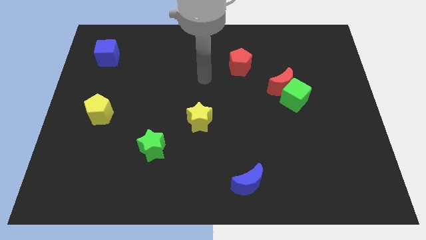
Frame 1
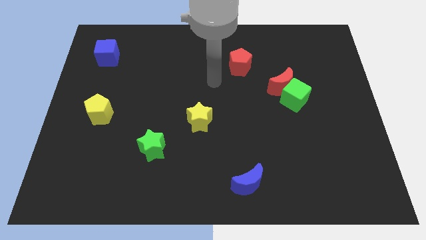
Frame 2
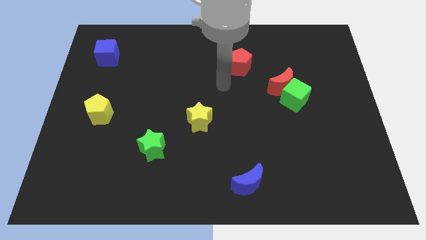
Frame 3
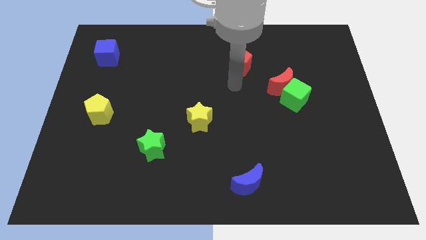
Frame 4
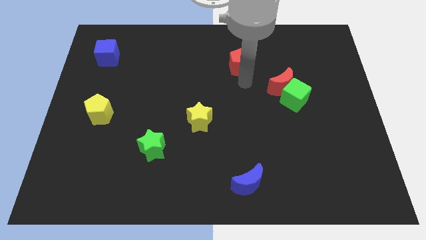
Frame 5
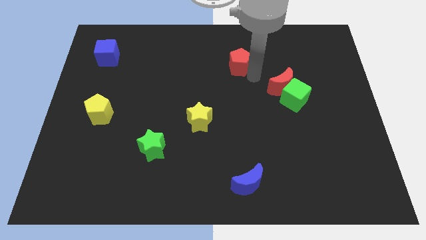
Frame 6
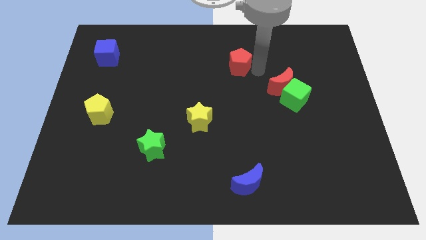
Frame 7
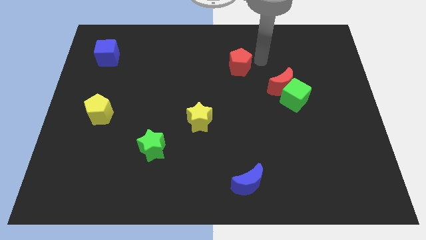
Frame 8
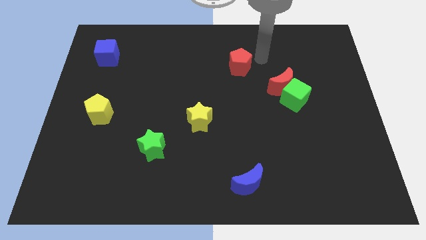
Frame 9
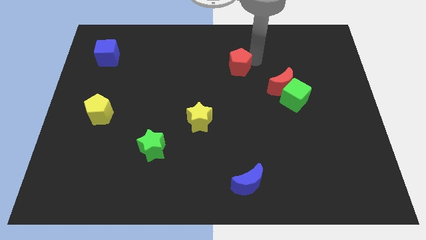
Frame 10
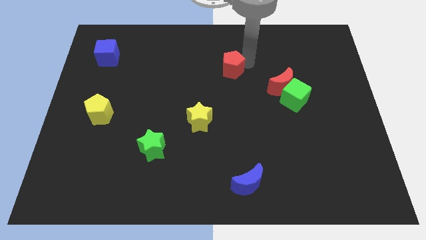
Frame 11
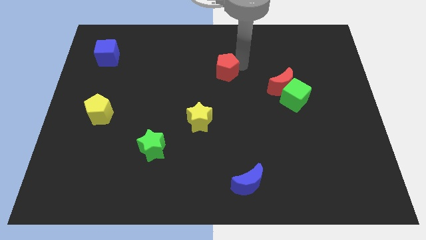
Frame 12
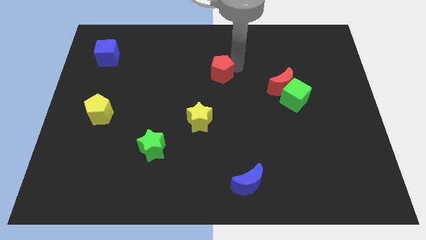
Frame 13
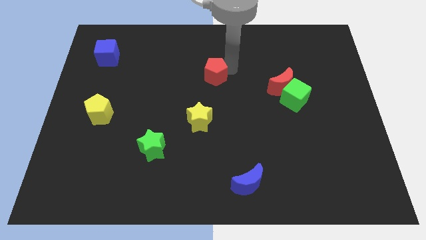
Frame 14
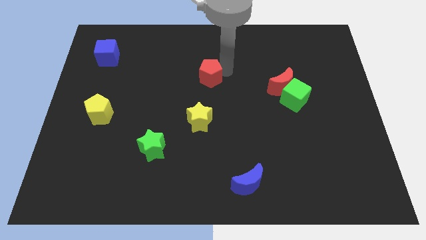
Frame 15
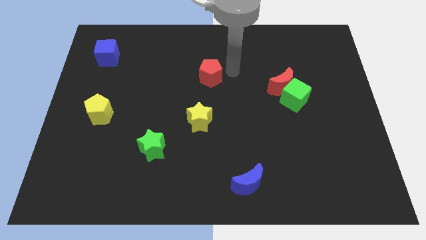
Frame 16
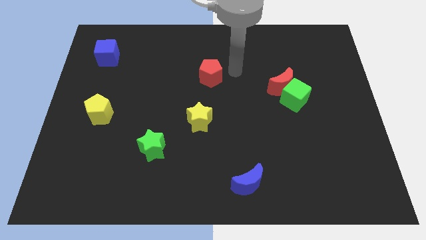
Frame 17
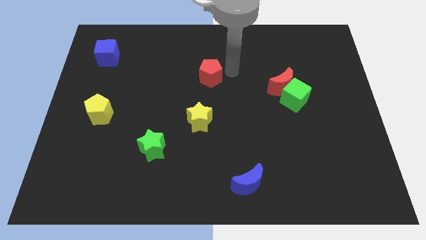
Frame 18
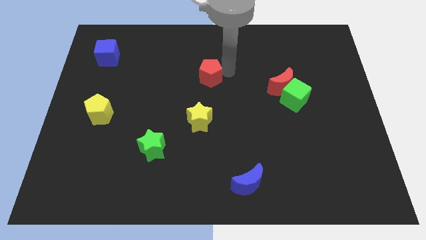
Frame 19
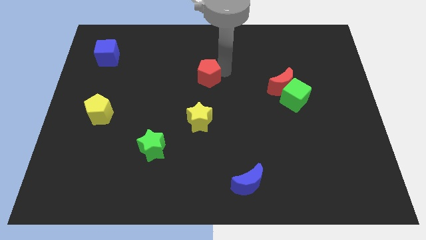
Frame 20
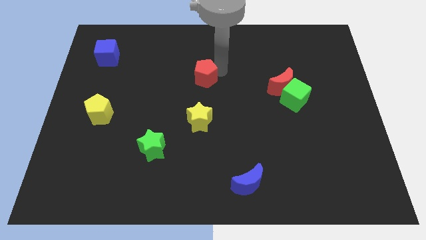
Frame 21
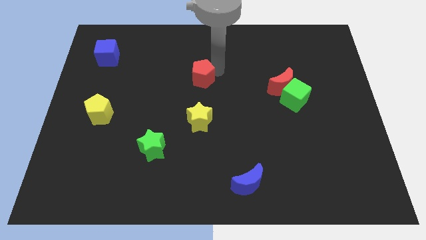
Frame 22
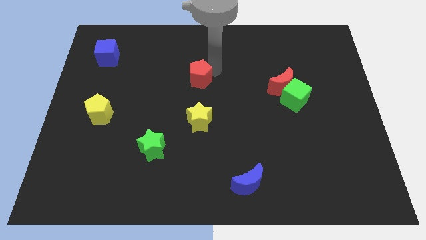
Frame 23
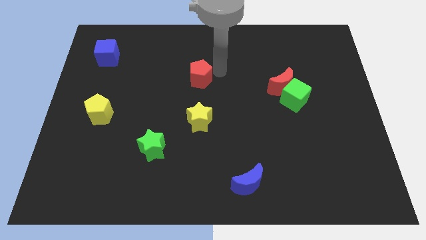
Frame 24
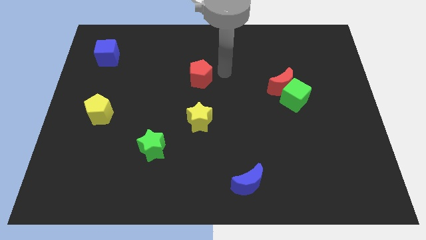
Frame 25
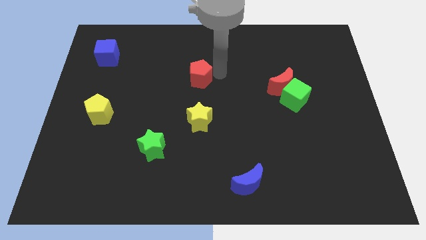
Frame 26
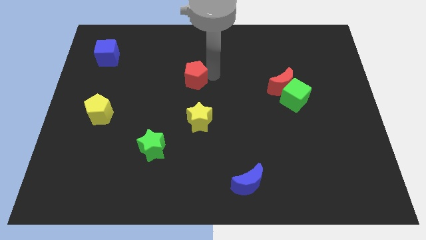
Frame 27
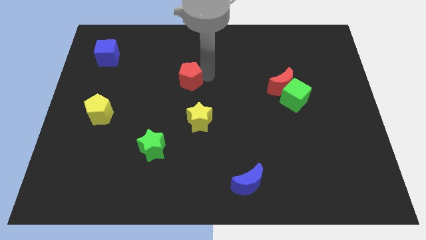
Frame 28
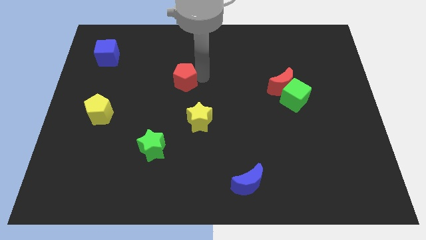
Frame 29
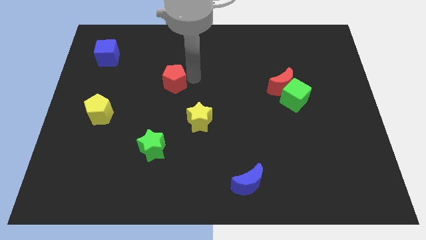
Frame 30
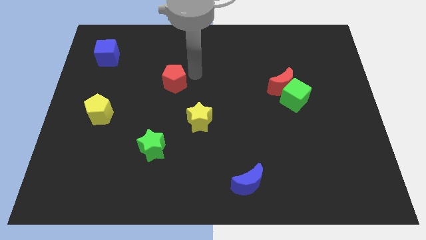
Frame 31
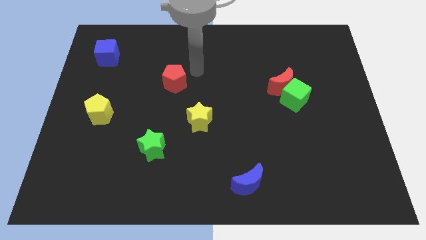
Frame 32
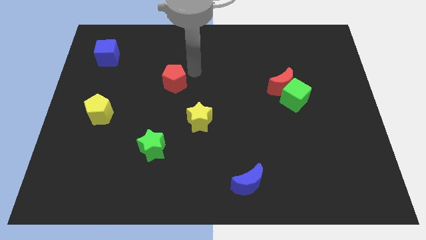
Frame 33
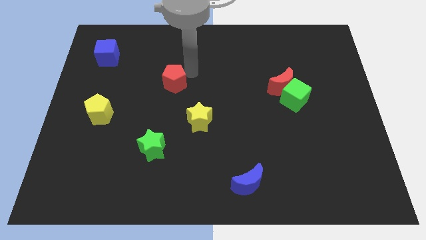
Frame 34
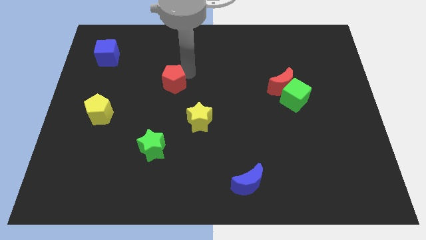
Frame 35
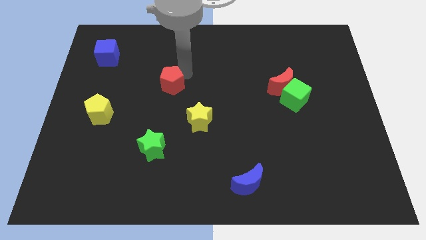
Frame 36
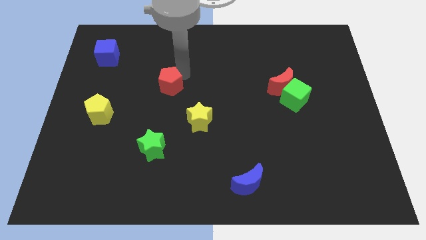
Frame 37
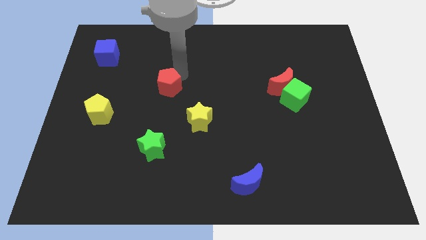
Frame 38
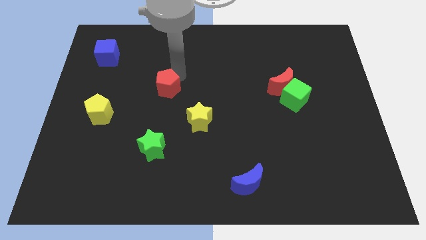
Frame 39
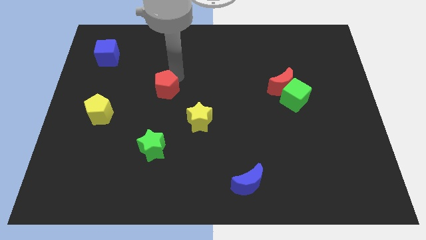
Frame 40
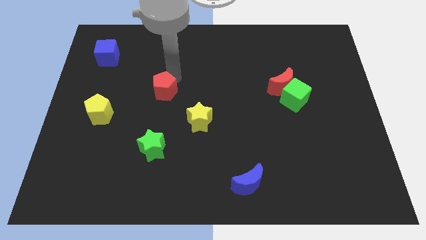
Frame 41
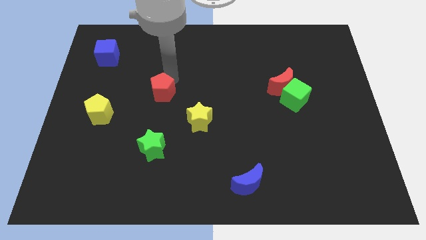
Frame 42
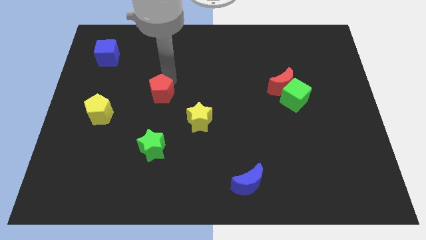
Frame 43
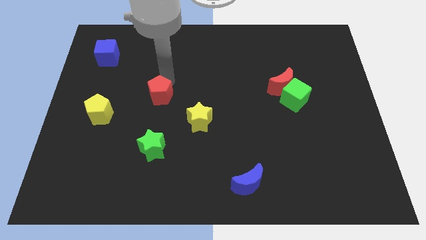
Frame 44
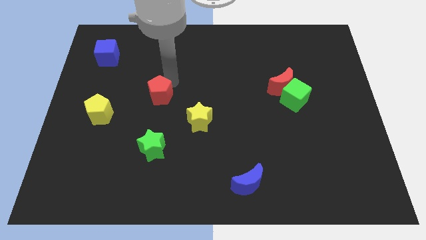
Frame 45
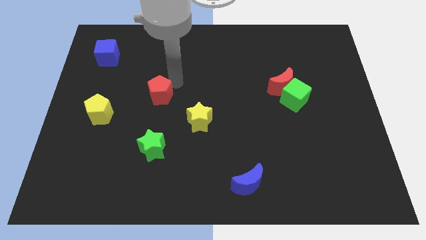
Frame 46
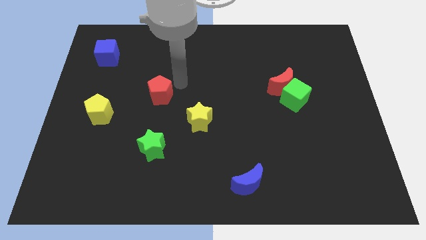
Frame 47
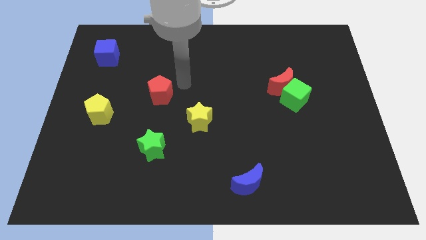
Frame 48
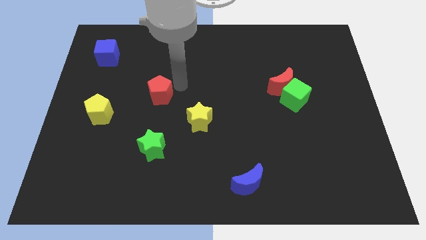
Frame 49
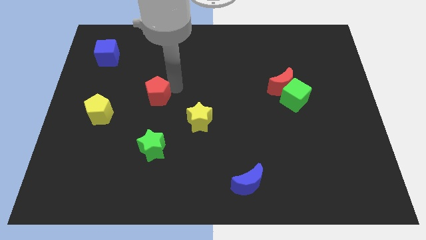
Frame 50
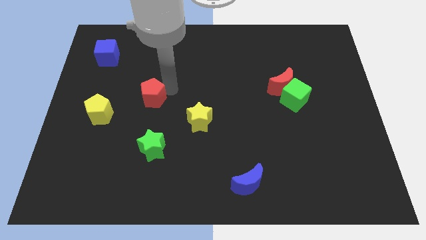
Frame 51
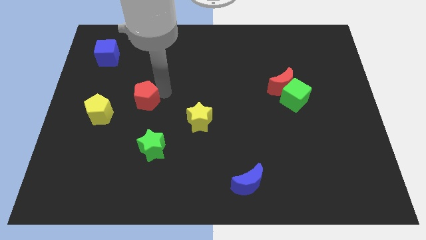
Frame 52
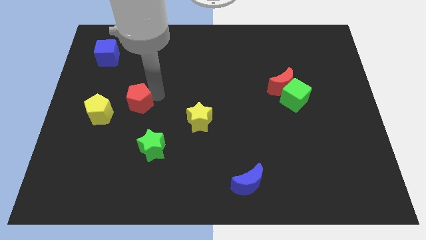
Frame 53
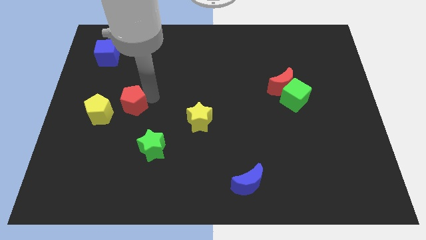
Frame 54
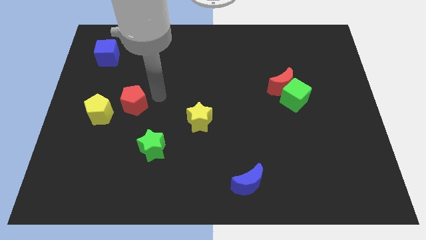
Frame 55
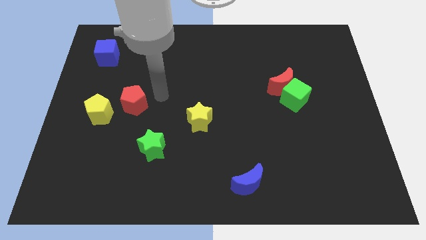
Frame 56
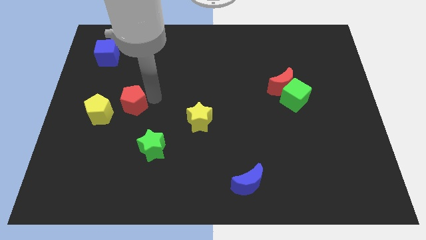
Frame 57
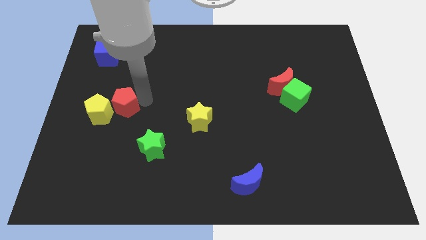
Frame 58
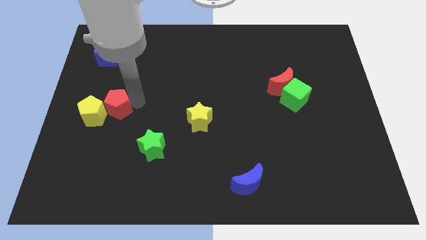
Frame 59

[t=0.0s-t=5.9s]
slide the red pentagon towards the yellow pentagon

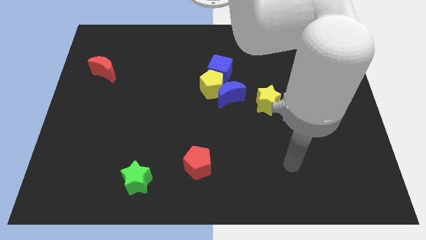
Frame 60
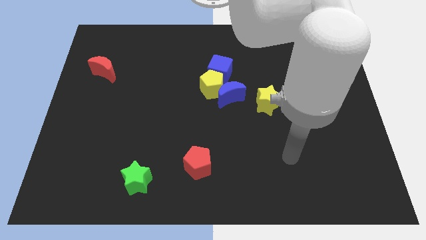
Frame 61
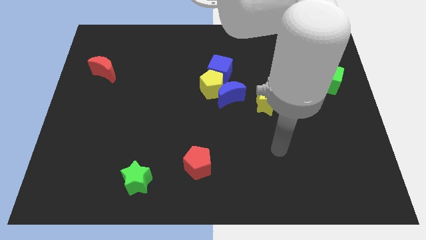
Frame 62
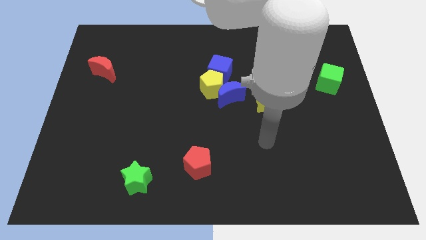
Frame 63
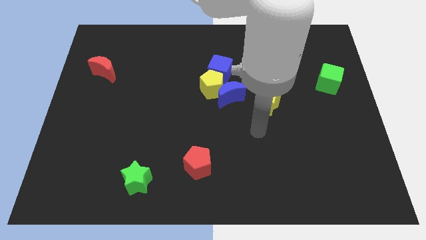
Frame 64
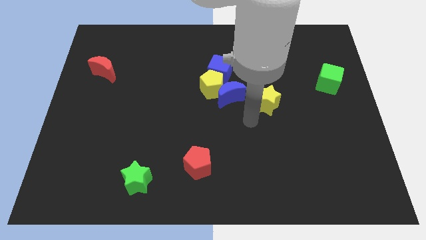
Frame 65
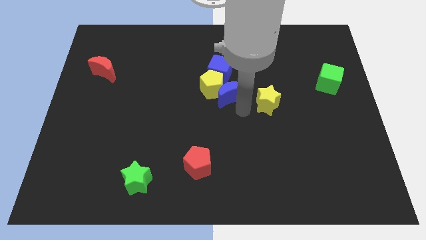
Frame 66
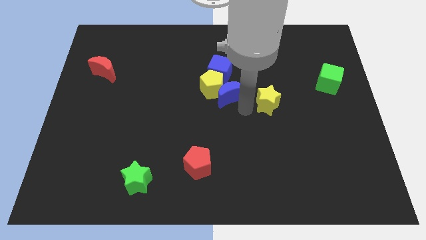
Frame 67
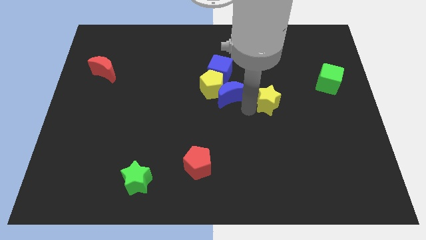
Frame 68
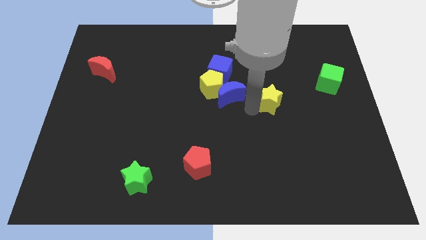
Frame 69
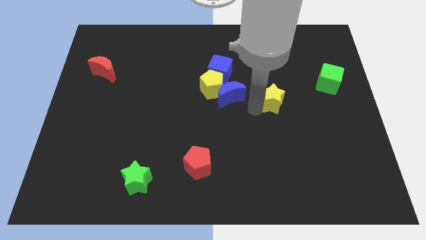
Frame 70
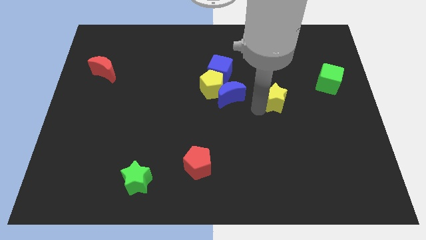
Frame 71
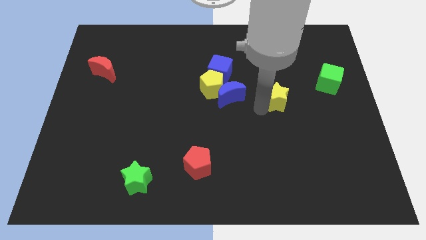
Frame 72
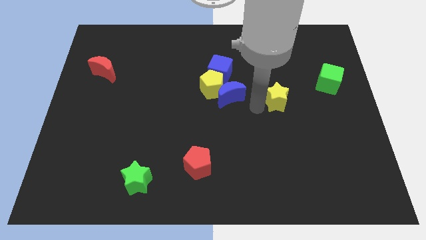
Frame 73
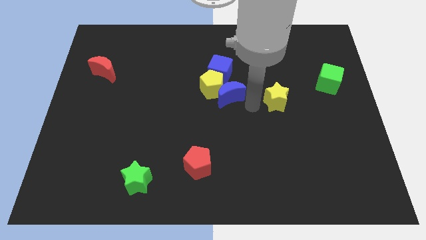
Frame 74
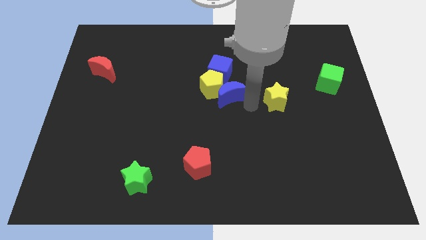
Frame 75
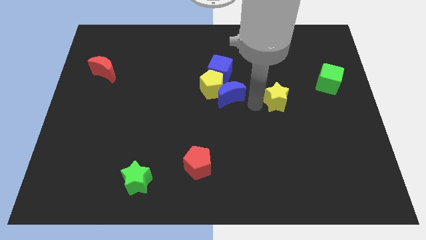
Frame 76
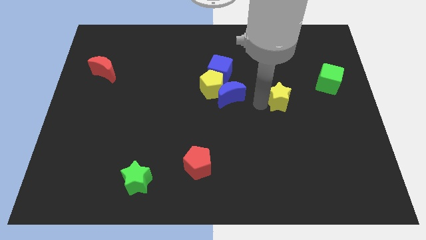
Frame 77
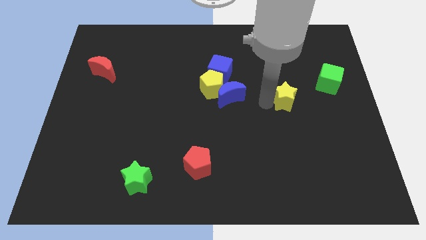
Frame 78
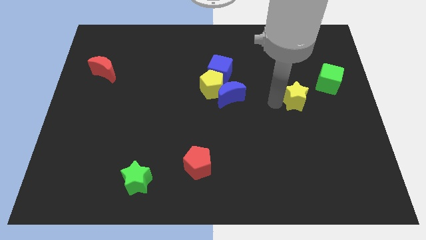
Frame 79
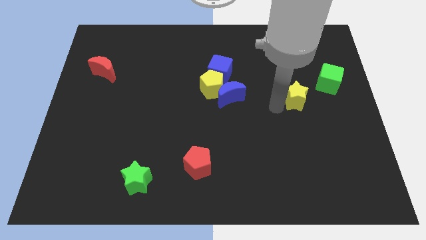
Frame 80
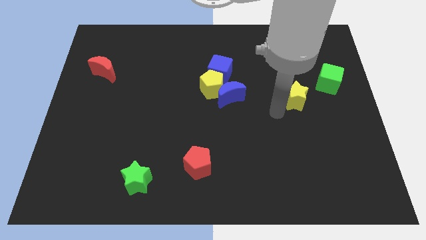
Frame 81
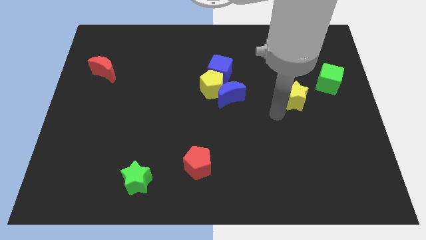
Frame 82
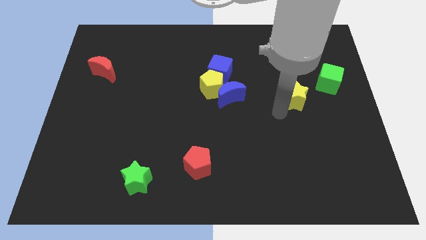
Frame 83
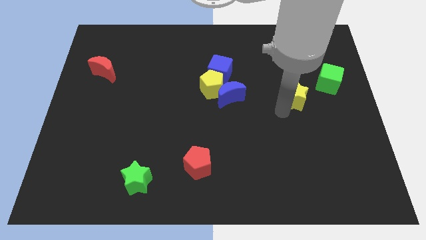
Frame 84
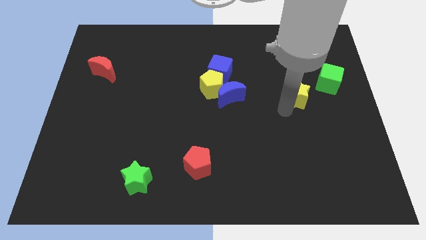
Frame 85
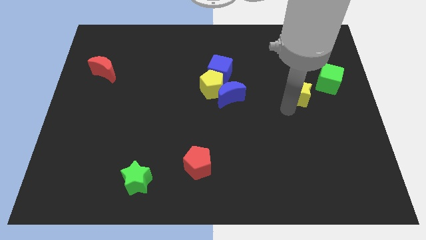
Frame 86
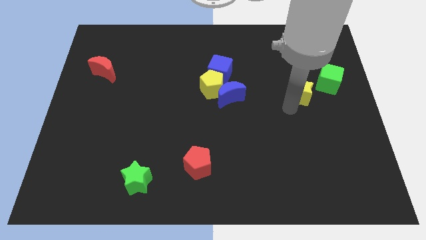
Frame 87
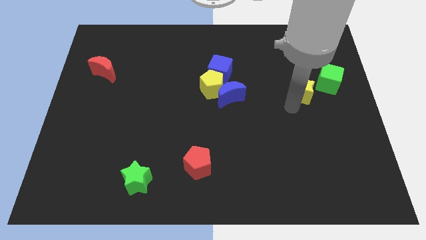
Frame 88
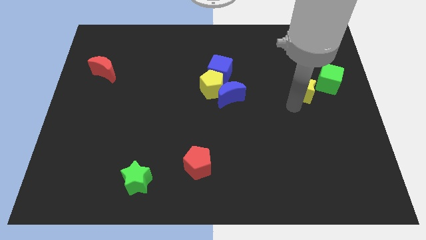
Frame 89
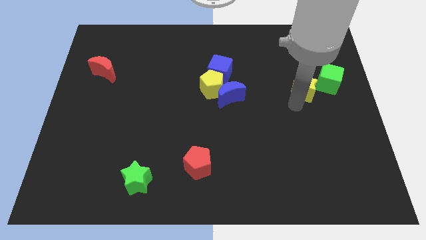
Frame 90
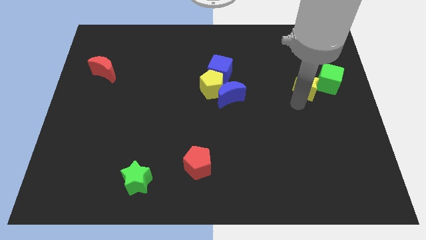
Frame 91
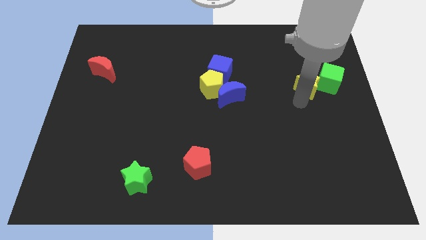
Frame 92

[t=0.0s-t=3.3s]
move the yellow star close to the green cube
